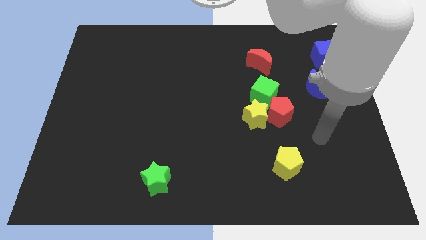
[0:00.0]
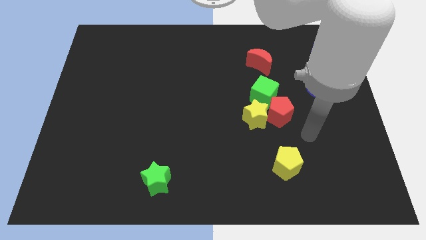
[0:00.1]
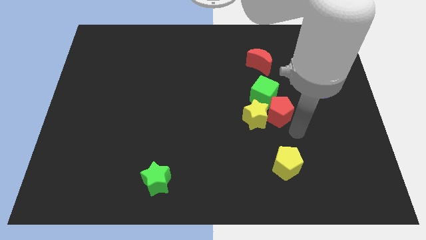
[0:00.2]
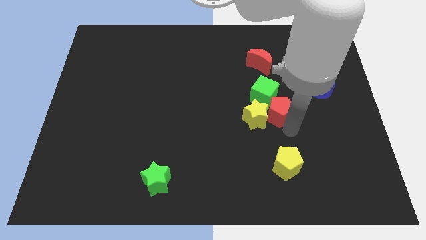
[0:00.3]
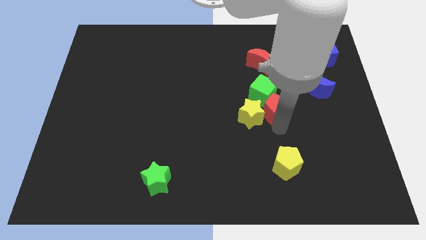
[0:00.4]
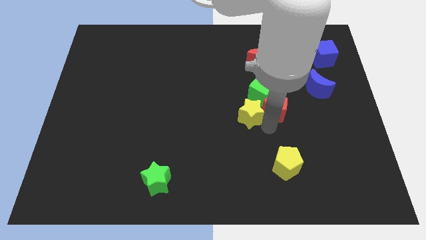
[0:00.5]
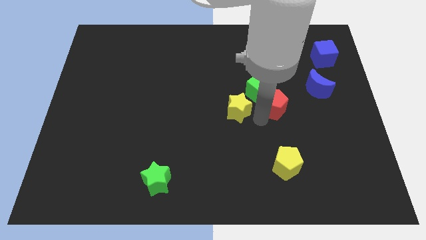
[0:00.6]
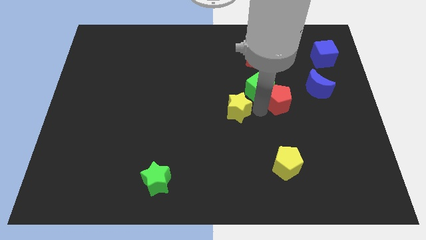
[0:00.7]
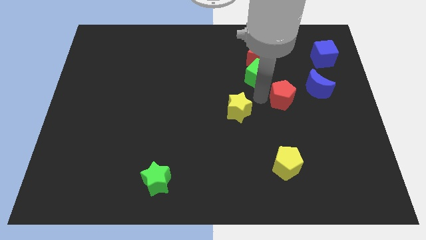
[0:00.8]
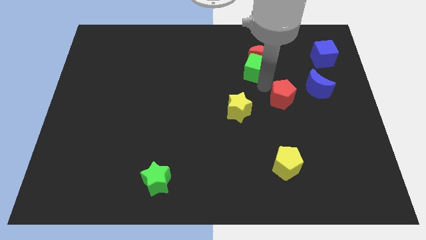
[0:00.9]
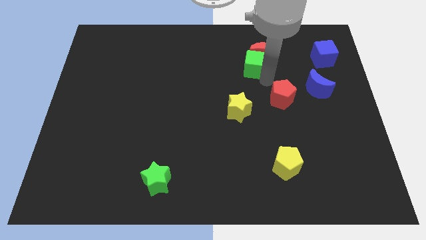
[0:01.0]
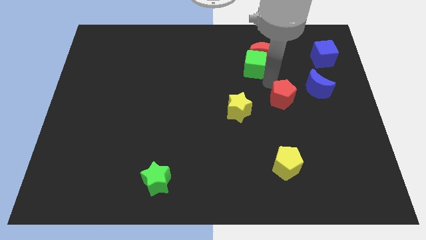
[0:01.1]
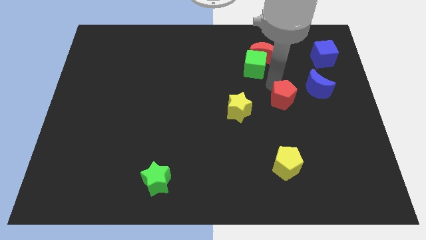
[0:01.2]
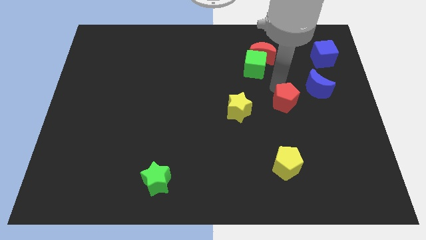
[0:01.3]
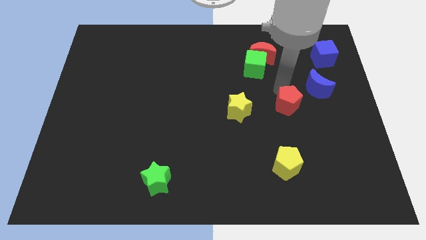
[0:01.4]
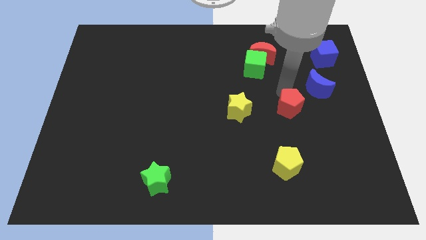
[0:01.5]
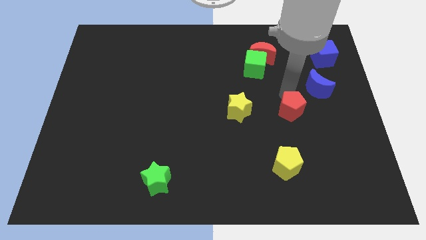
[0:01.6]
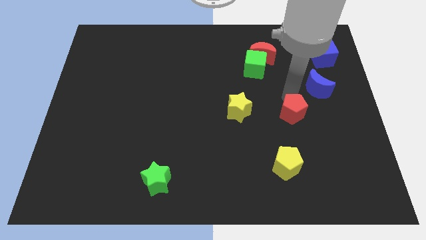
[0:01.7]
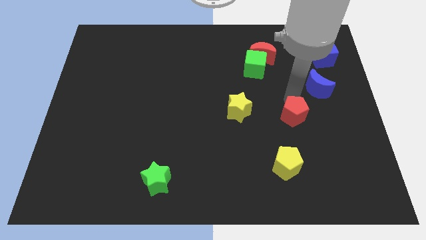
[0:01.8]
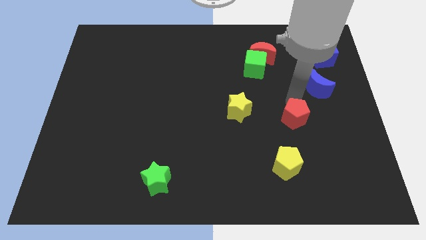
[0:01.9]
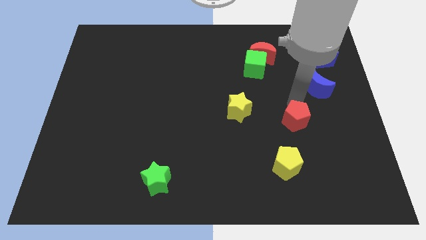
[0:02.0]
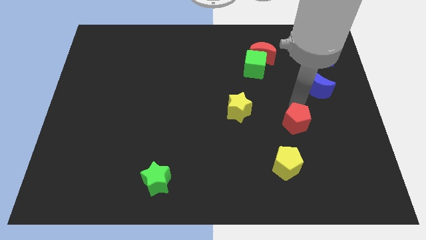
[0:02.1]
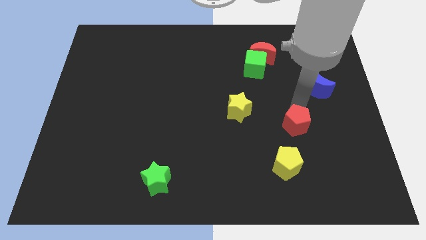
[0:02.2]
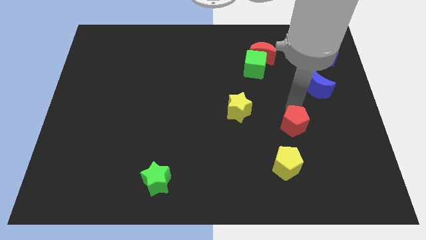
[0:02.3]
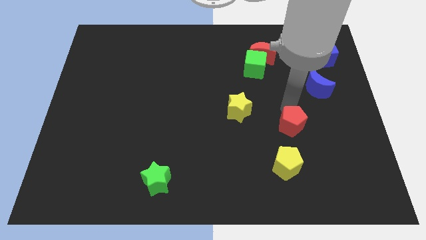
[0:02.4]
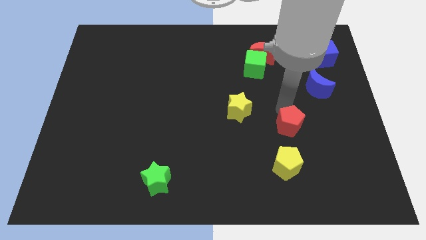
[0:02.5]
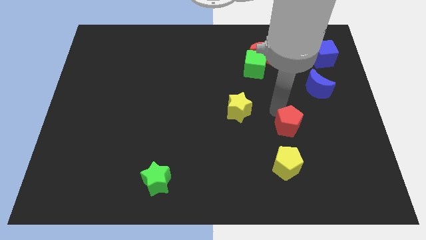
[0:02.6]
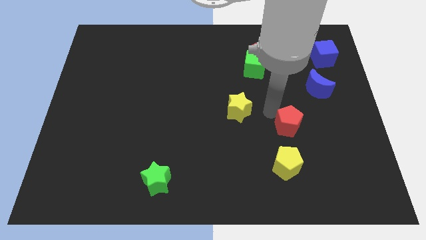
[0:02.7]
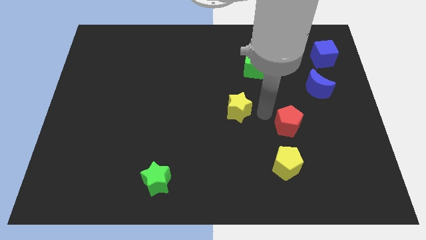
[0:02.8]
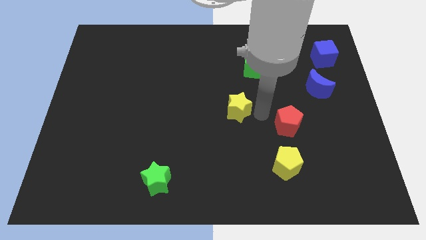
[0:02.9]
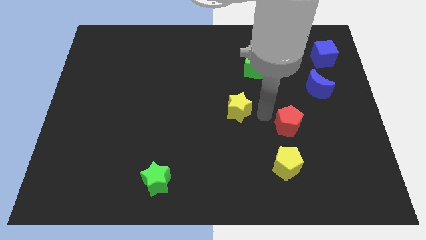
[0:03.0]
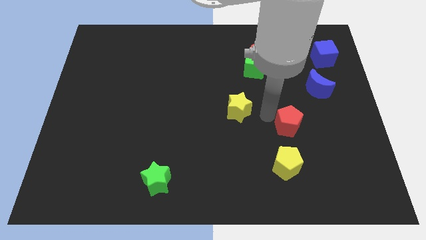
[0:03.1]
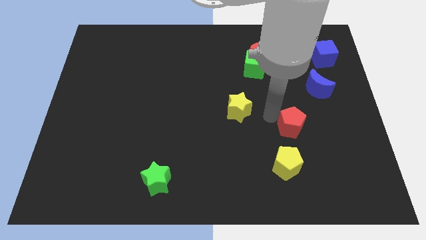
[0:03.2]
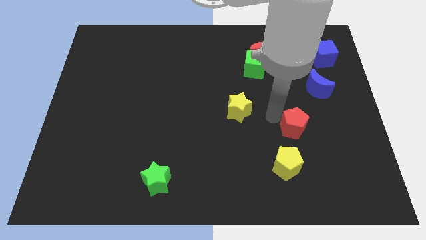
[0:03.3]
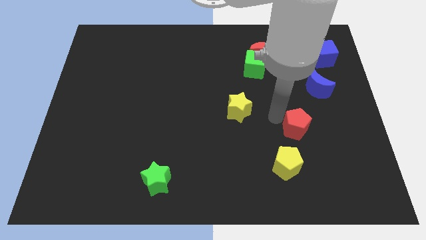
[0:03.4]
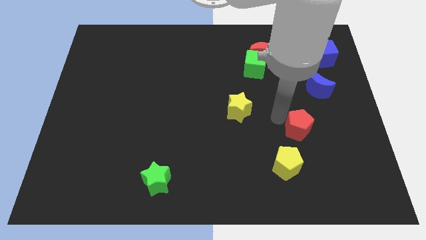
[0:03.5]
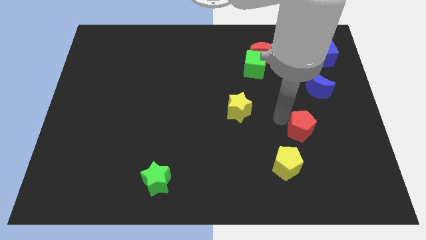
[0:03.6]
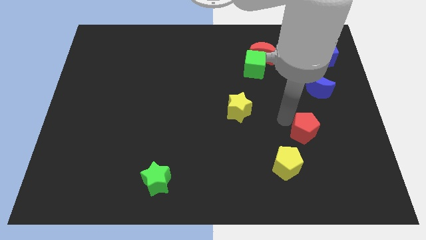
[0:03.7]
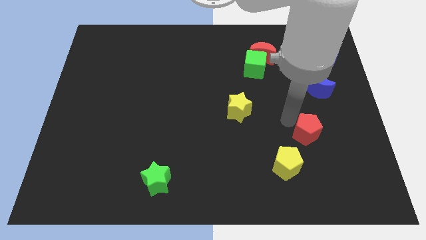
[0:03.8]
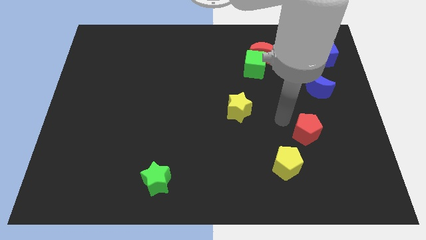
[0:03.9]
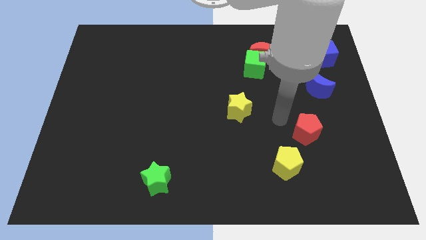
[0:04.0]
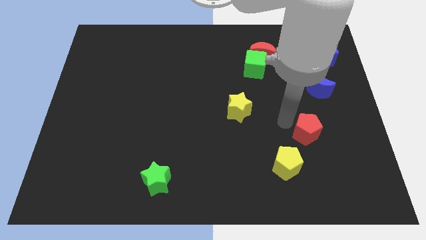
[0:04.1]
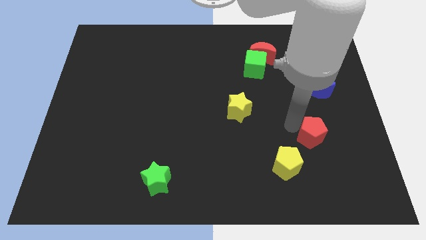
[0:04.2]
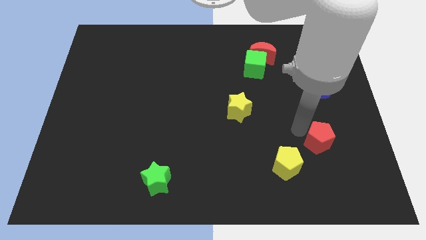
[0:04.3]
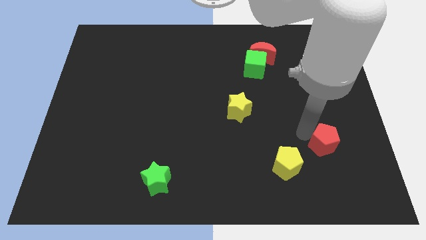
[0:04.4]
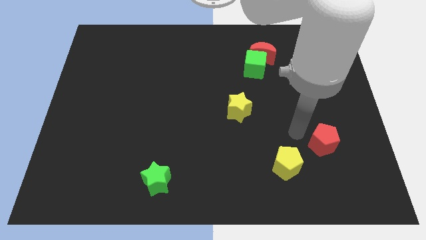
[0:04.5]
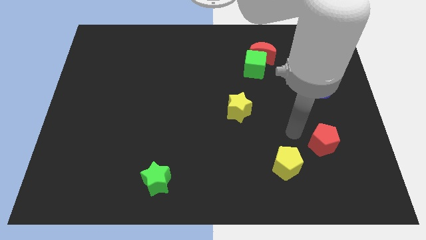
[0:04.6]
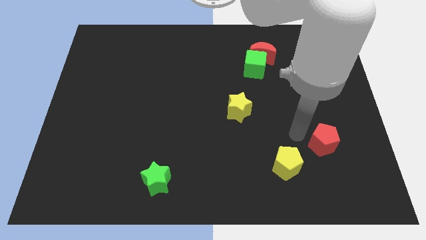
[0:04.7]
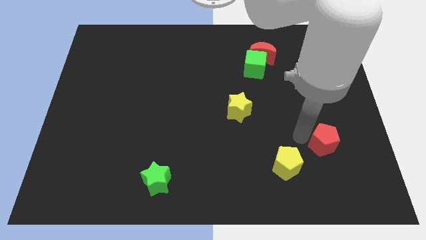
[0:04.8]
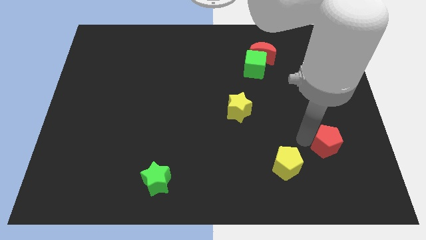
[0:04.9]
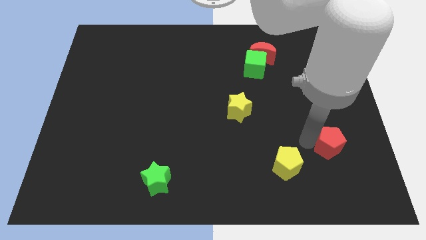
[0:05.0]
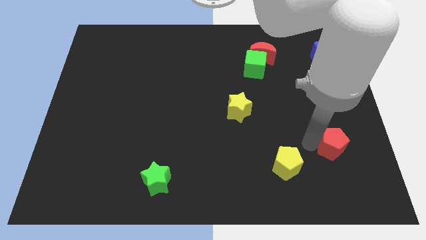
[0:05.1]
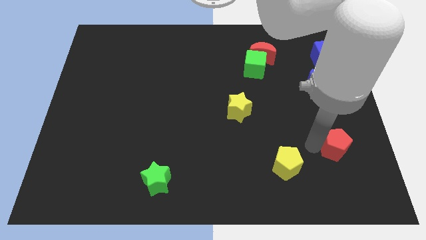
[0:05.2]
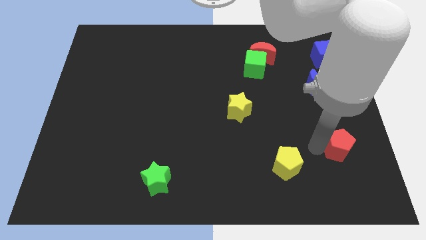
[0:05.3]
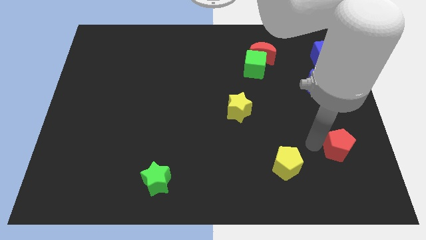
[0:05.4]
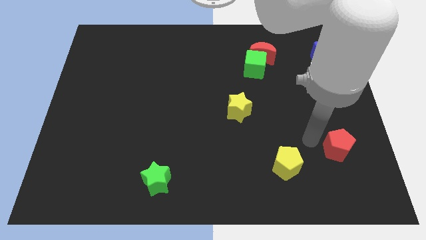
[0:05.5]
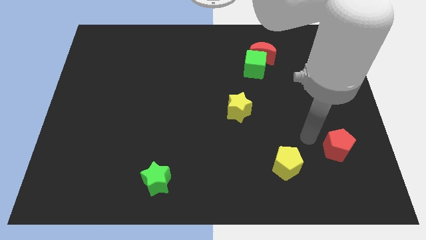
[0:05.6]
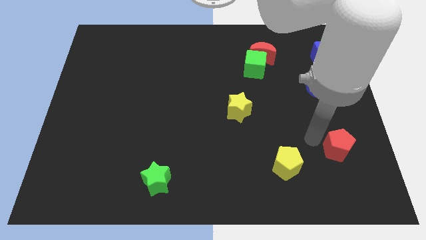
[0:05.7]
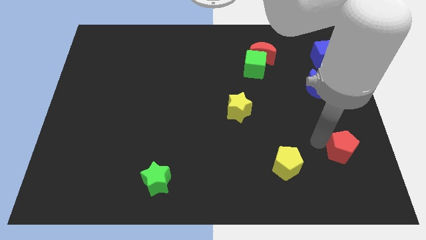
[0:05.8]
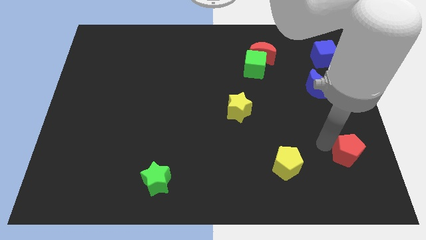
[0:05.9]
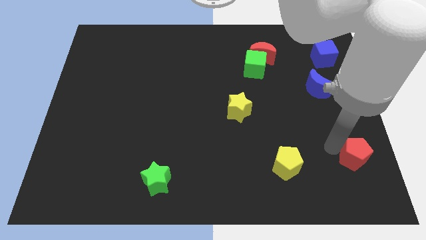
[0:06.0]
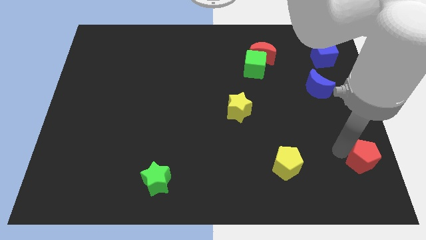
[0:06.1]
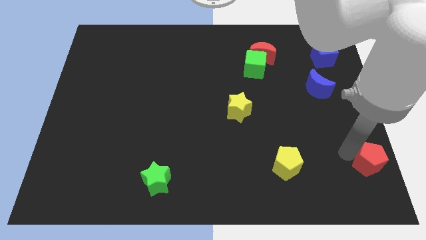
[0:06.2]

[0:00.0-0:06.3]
slide the red pentagon to the bottom right corner
